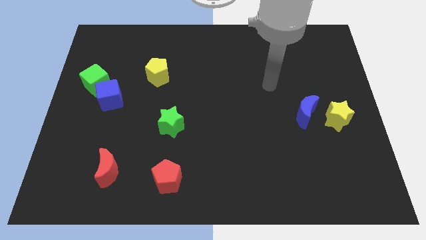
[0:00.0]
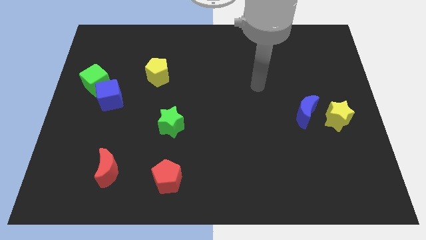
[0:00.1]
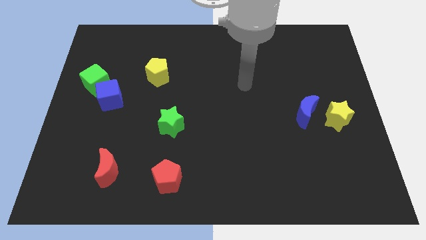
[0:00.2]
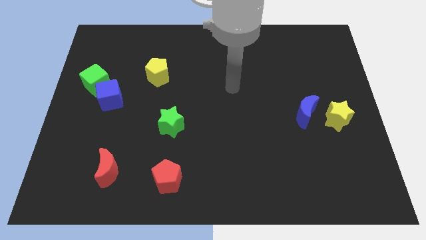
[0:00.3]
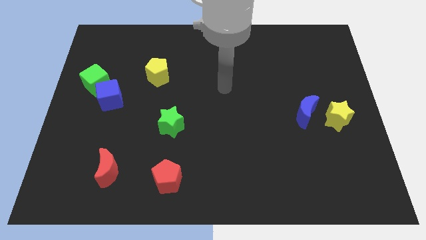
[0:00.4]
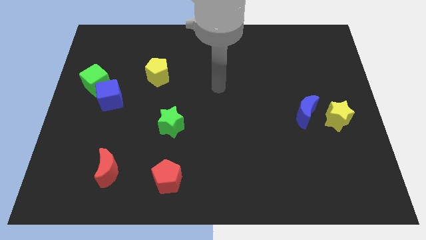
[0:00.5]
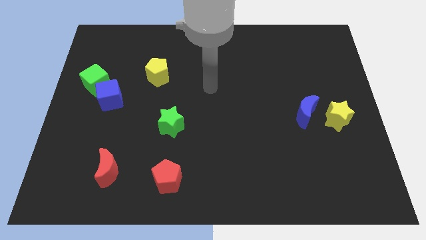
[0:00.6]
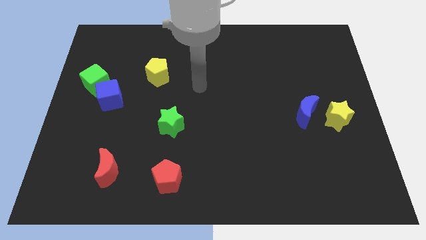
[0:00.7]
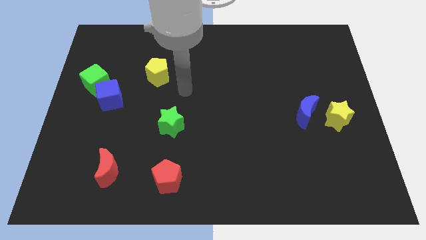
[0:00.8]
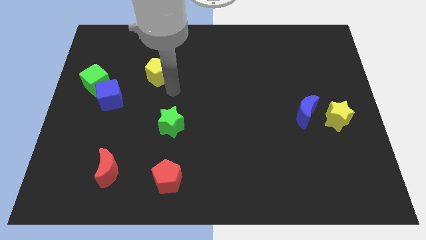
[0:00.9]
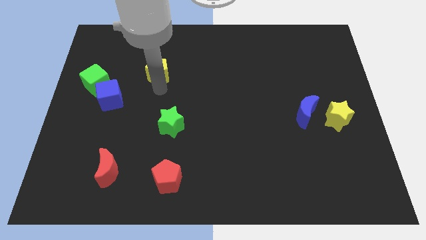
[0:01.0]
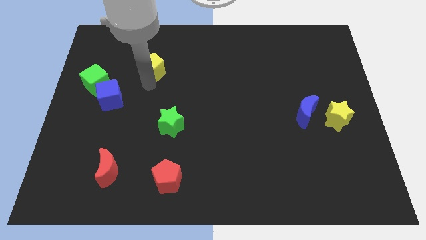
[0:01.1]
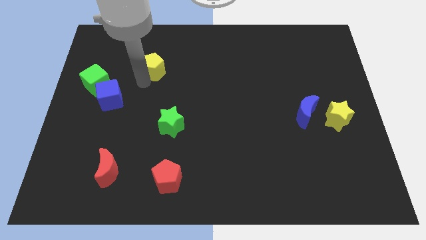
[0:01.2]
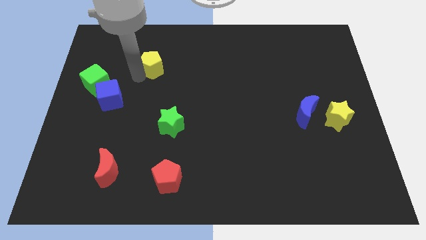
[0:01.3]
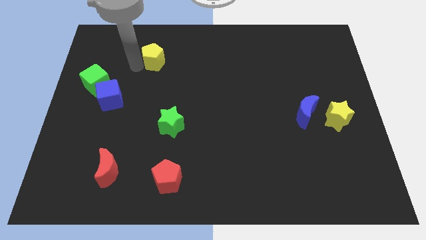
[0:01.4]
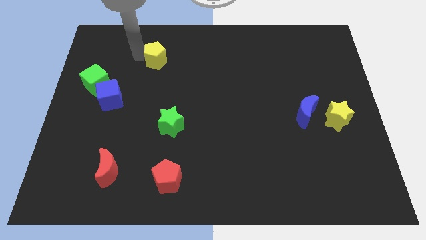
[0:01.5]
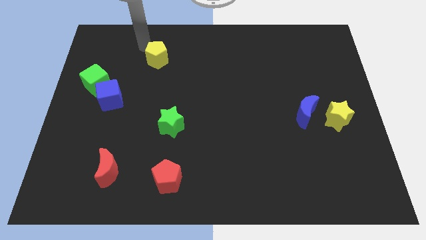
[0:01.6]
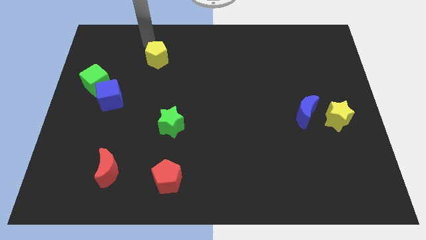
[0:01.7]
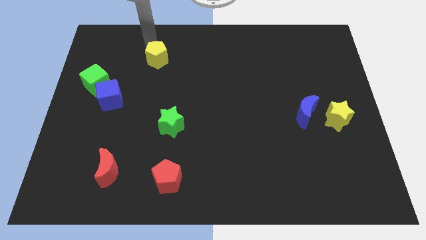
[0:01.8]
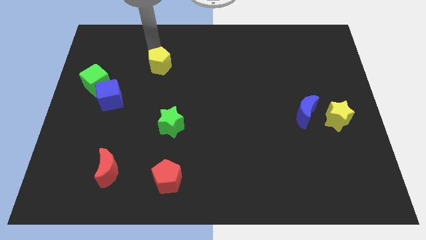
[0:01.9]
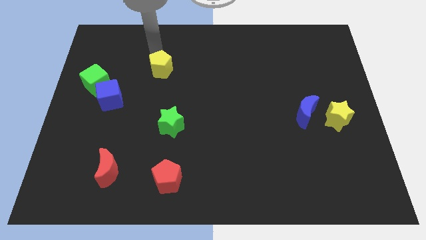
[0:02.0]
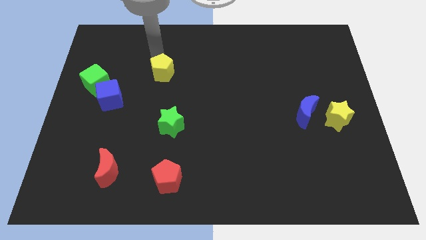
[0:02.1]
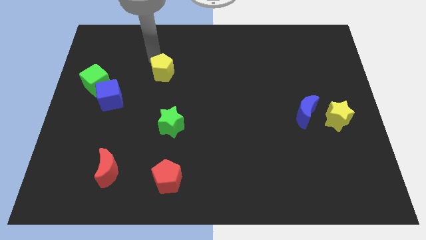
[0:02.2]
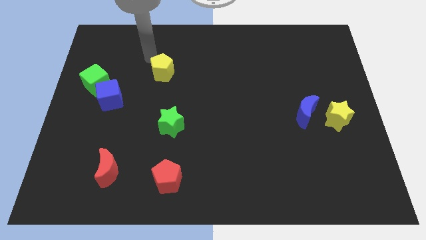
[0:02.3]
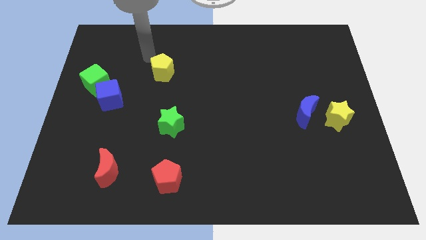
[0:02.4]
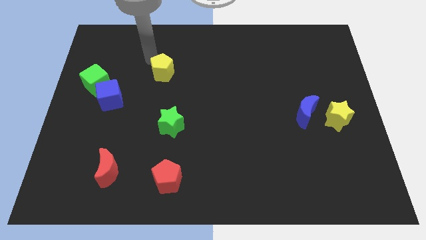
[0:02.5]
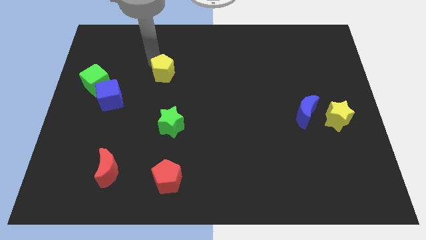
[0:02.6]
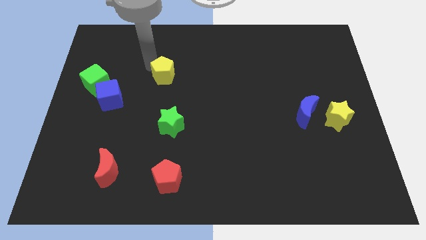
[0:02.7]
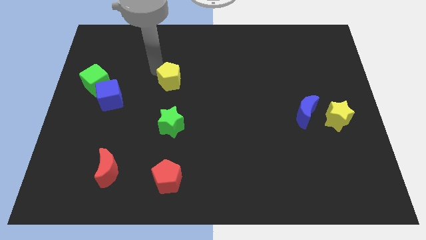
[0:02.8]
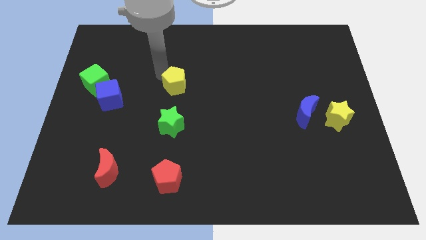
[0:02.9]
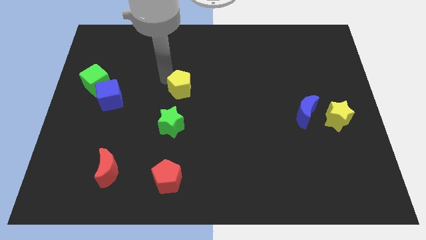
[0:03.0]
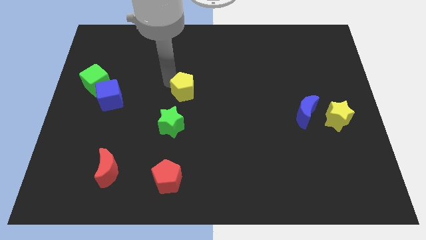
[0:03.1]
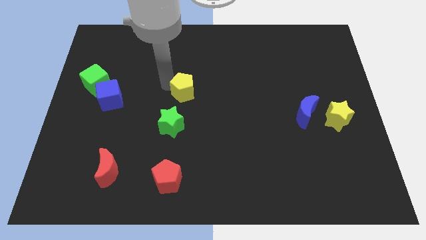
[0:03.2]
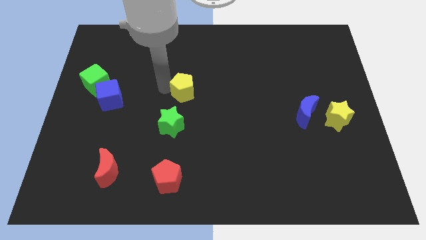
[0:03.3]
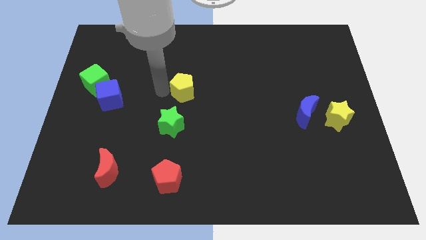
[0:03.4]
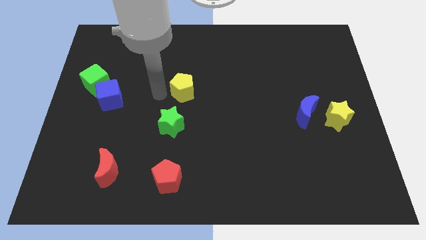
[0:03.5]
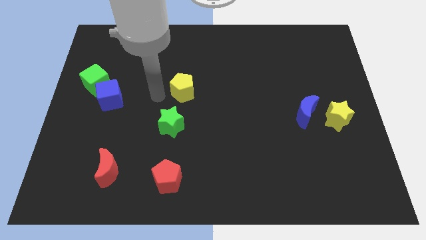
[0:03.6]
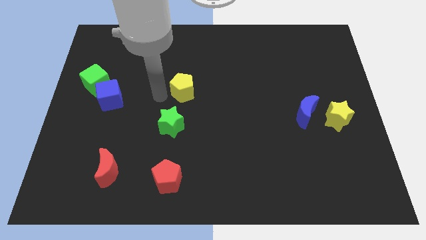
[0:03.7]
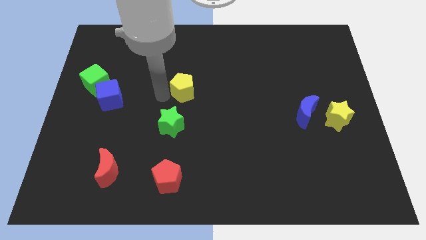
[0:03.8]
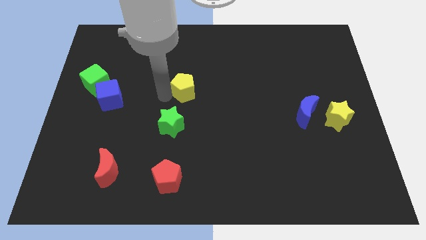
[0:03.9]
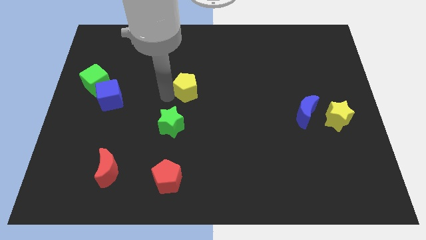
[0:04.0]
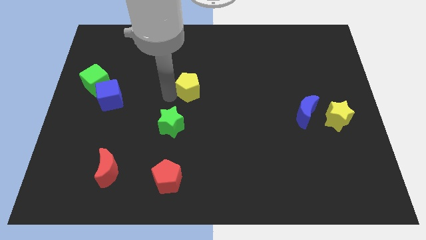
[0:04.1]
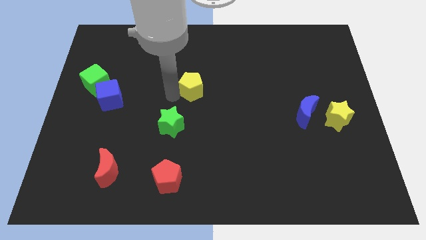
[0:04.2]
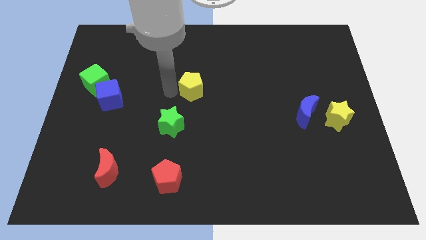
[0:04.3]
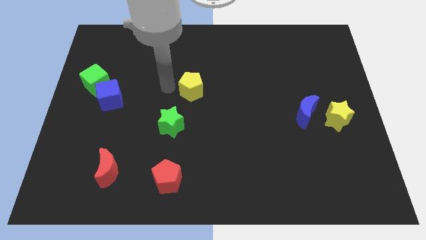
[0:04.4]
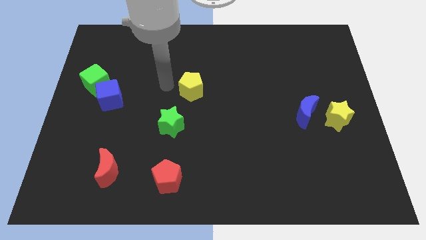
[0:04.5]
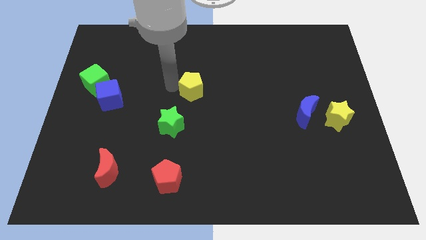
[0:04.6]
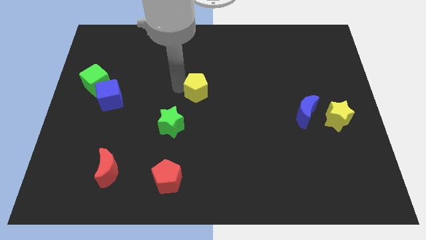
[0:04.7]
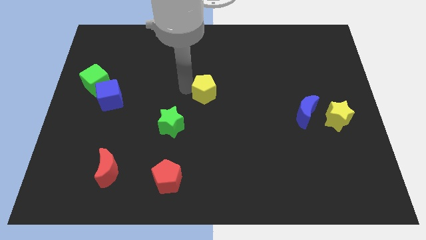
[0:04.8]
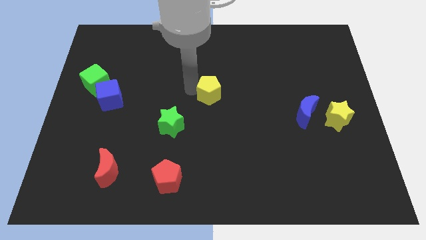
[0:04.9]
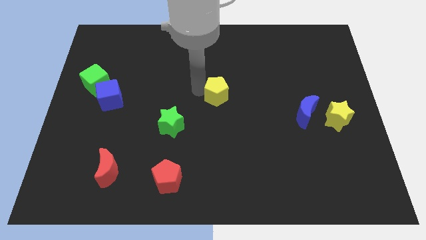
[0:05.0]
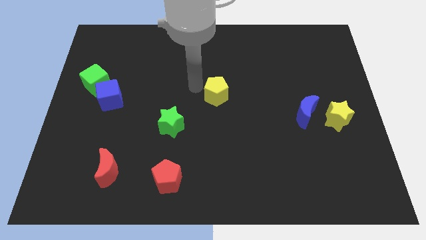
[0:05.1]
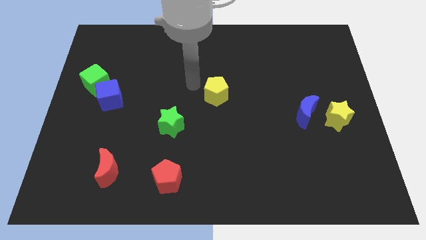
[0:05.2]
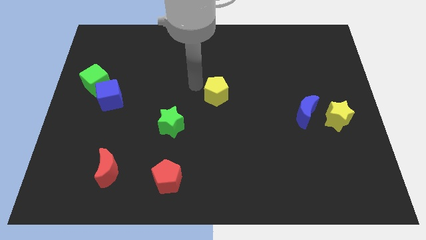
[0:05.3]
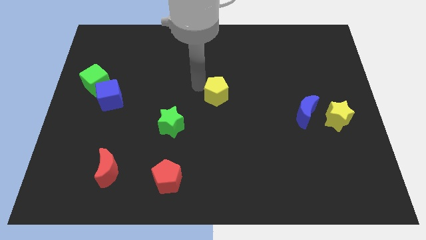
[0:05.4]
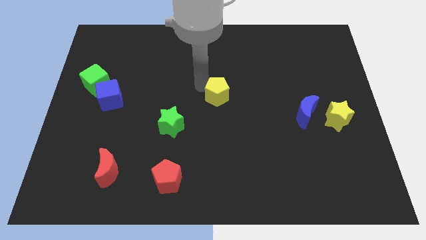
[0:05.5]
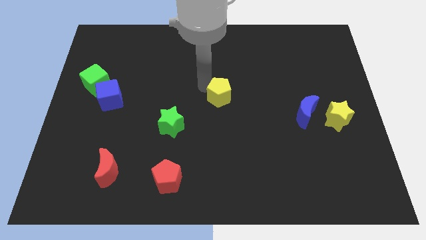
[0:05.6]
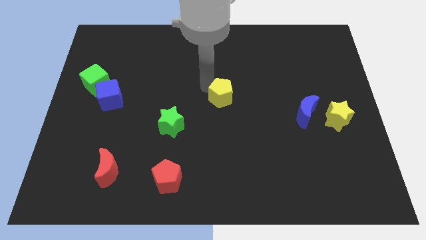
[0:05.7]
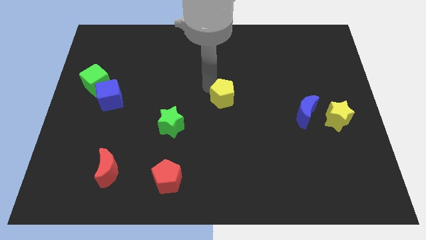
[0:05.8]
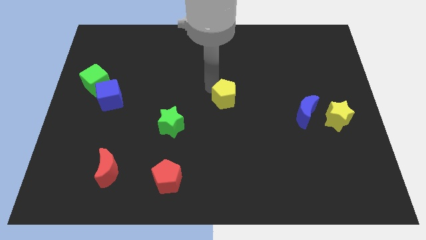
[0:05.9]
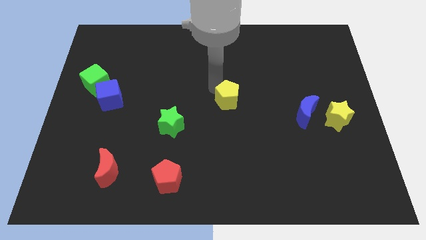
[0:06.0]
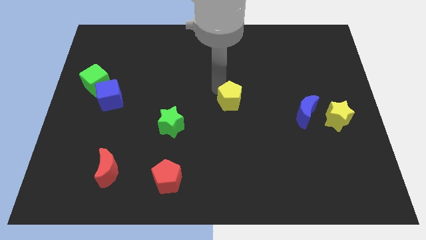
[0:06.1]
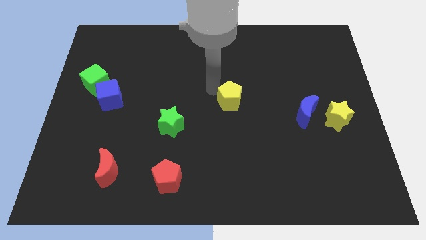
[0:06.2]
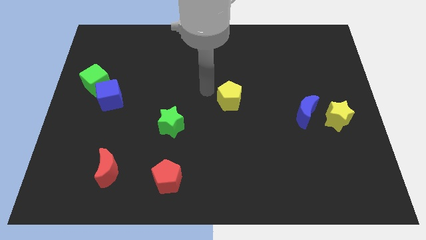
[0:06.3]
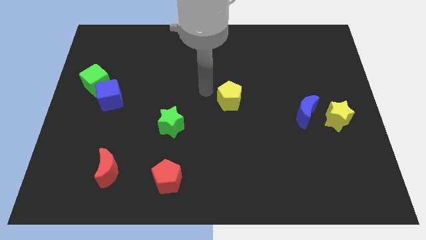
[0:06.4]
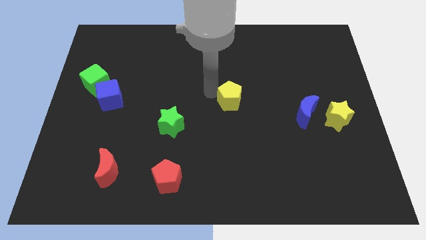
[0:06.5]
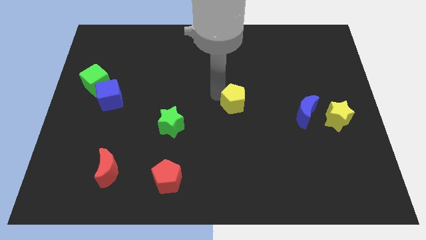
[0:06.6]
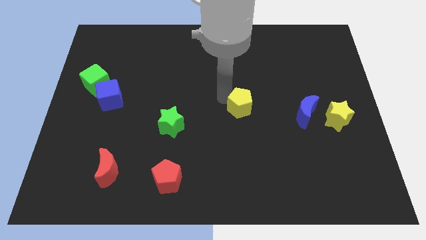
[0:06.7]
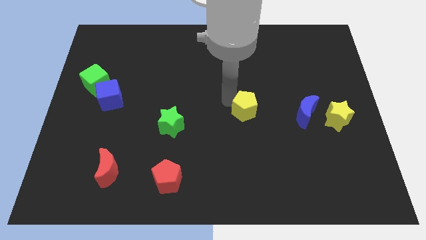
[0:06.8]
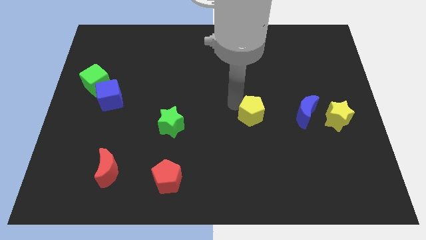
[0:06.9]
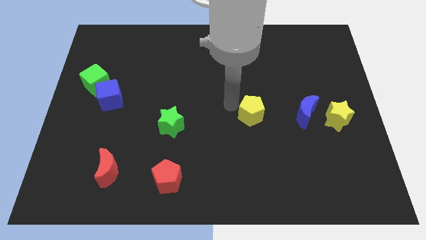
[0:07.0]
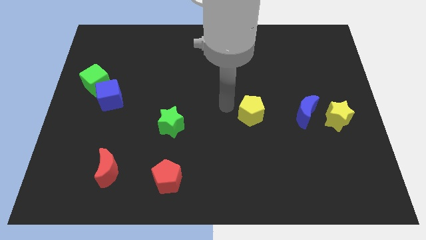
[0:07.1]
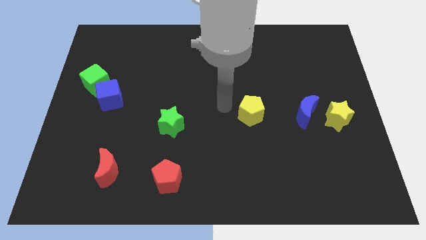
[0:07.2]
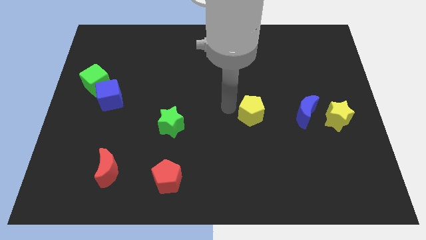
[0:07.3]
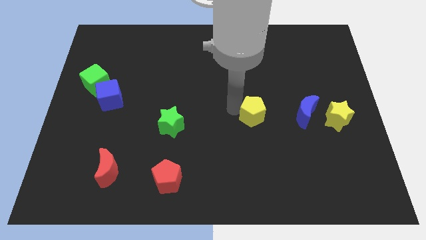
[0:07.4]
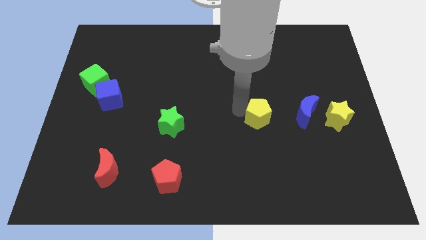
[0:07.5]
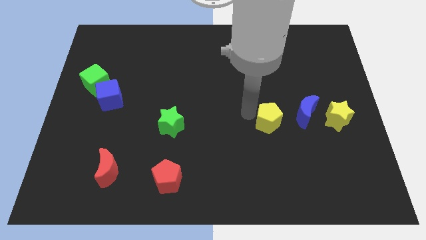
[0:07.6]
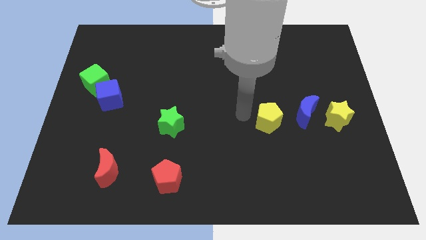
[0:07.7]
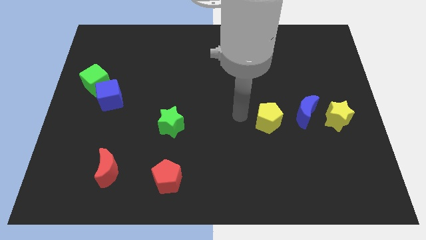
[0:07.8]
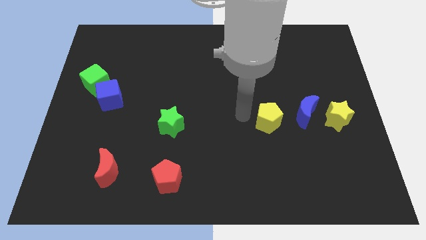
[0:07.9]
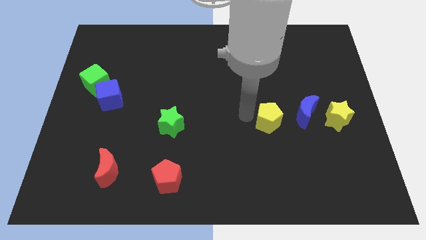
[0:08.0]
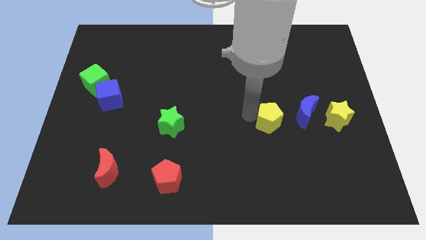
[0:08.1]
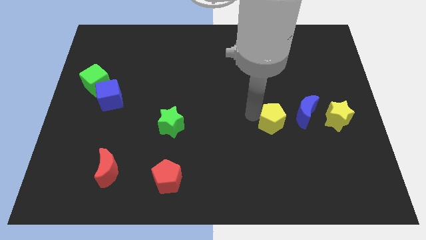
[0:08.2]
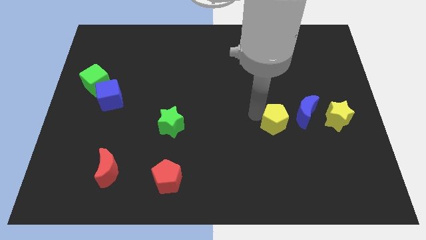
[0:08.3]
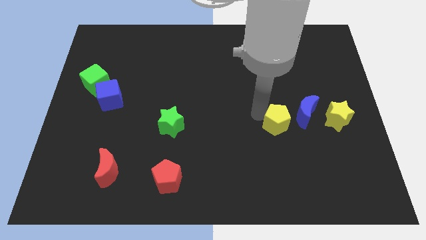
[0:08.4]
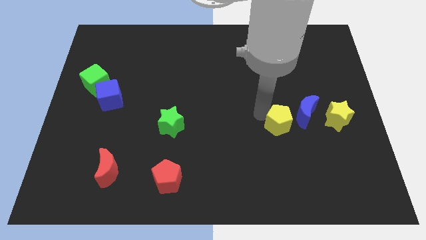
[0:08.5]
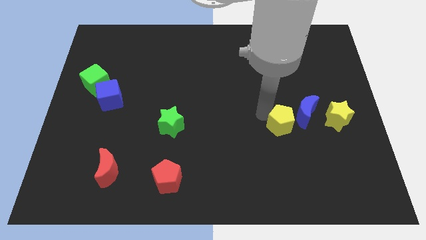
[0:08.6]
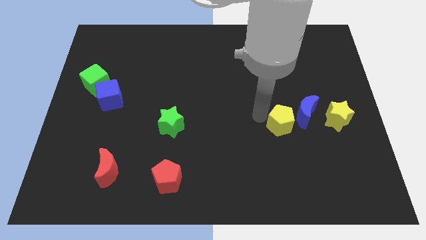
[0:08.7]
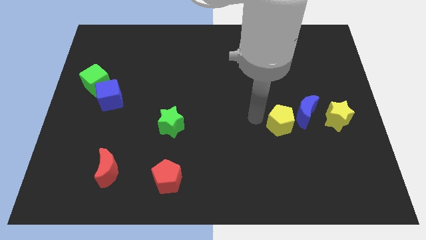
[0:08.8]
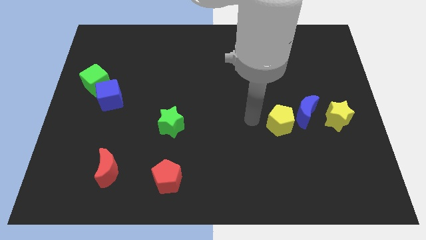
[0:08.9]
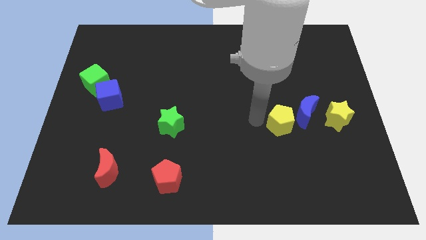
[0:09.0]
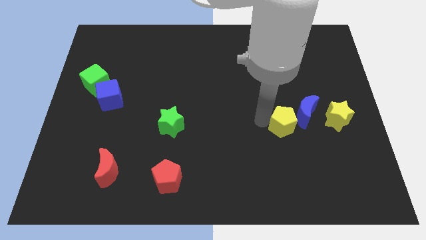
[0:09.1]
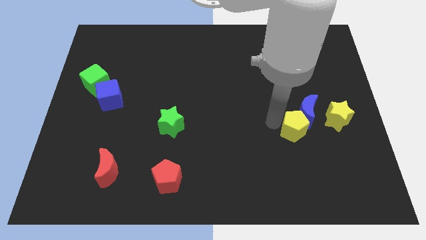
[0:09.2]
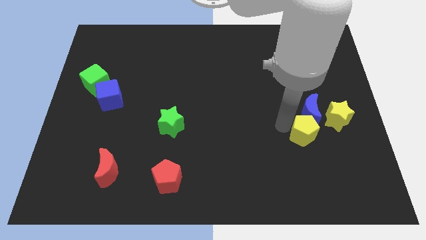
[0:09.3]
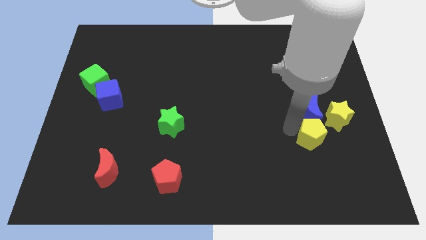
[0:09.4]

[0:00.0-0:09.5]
push the yellow pentagon diagonally down and to the right of the blue moon
